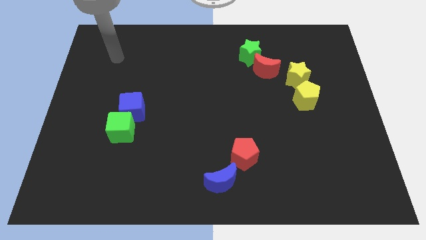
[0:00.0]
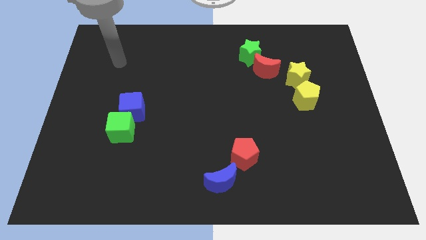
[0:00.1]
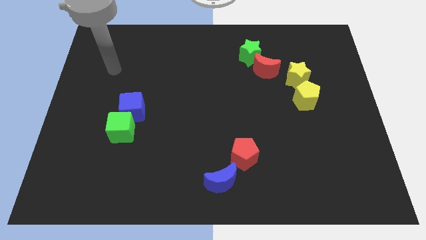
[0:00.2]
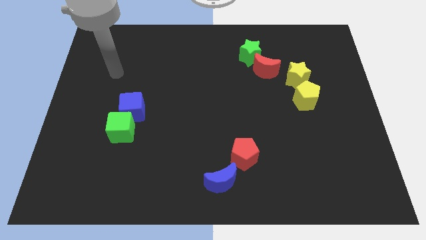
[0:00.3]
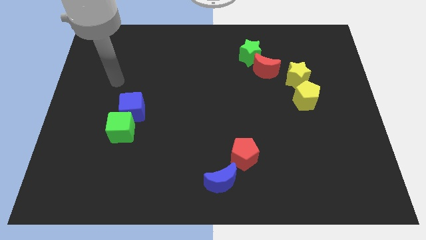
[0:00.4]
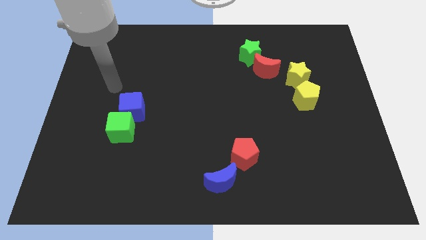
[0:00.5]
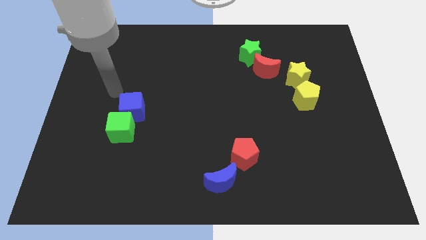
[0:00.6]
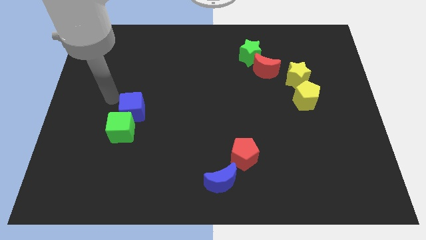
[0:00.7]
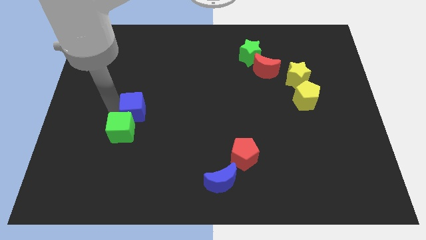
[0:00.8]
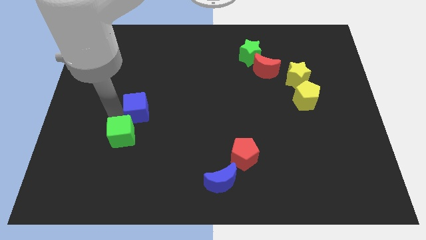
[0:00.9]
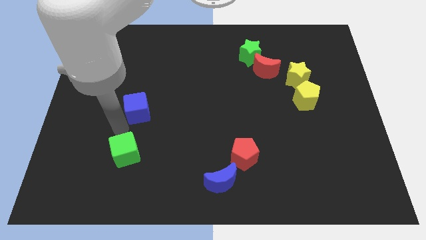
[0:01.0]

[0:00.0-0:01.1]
separate the blue cube from the green cube

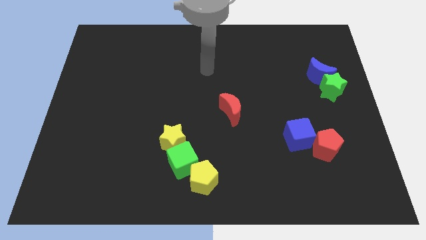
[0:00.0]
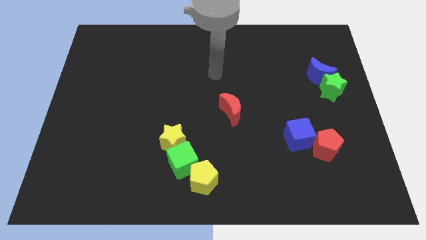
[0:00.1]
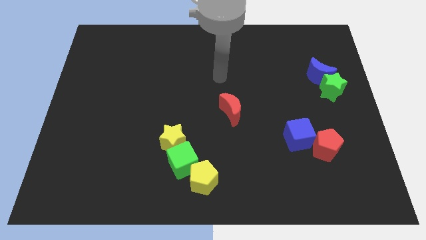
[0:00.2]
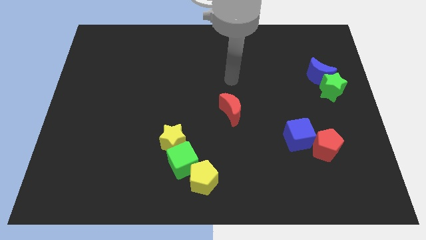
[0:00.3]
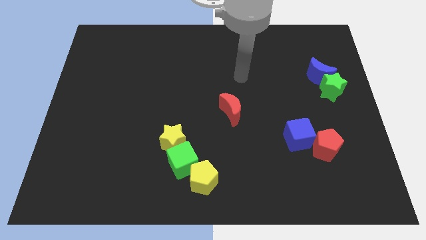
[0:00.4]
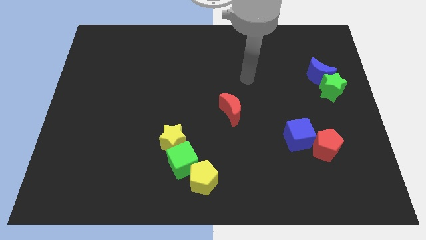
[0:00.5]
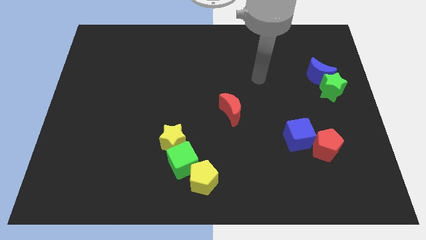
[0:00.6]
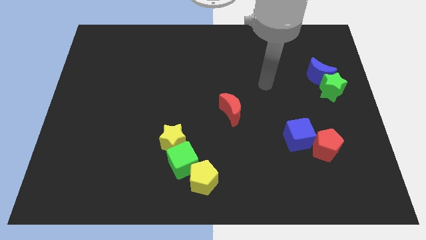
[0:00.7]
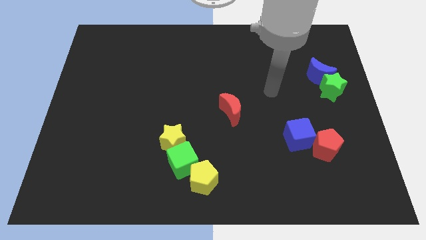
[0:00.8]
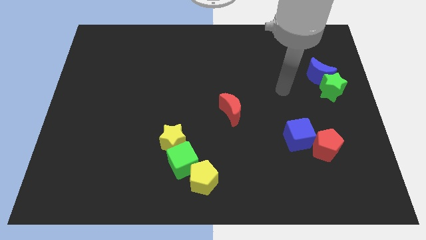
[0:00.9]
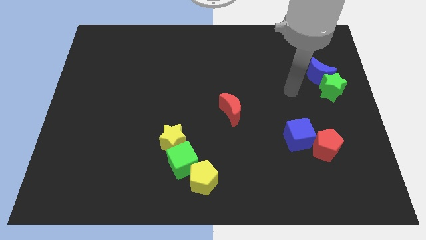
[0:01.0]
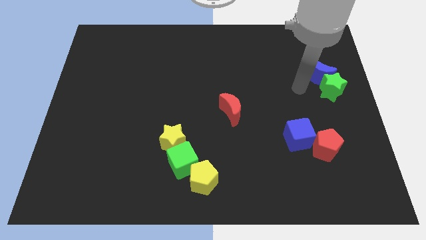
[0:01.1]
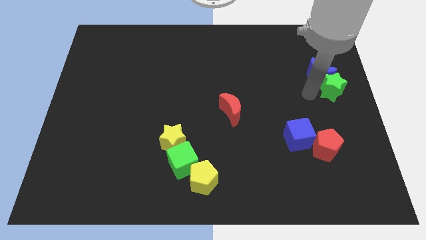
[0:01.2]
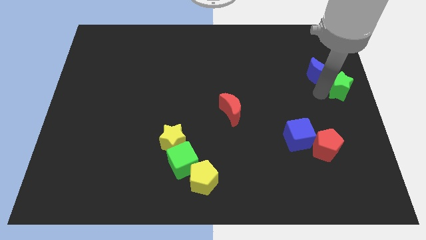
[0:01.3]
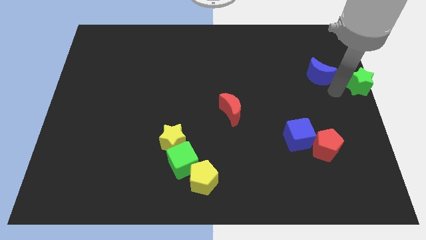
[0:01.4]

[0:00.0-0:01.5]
separate the blue moon from the green star

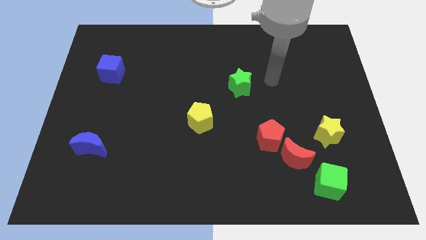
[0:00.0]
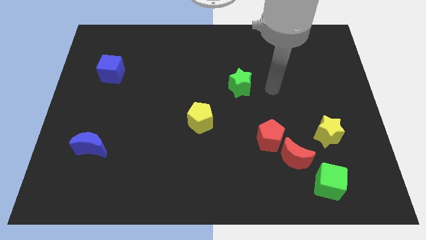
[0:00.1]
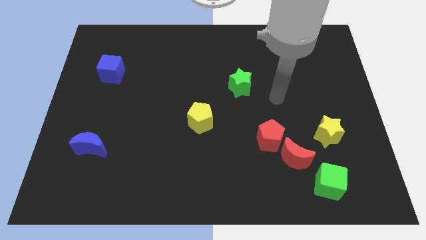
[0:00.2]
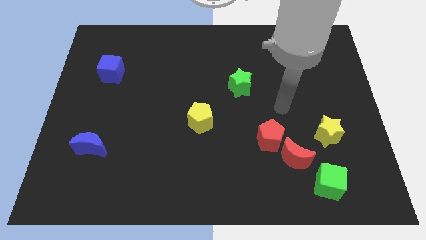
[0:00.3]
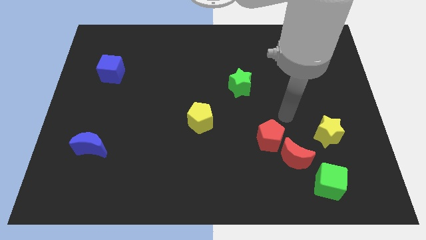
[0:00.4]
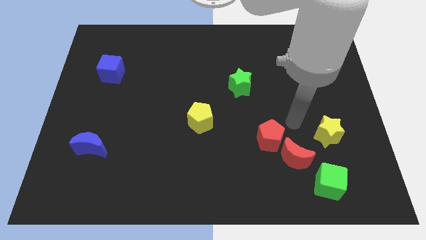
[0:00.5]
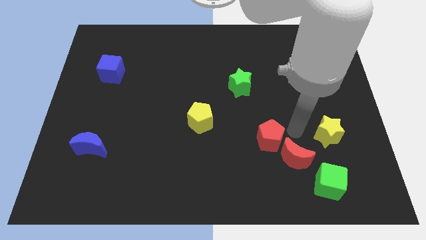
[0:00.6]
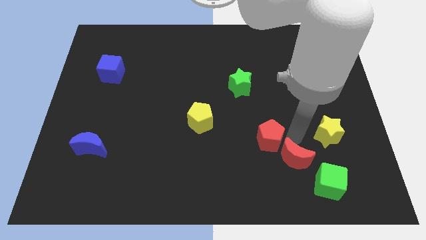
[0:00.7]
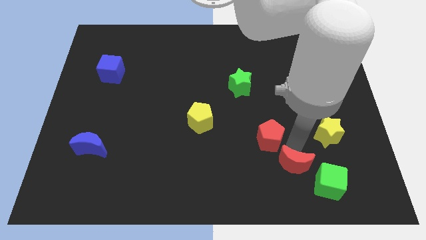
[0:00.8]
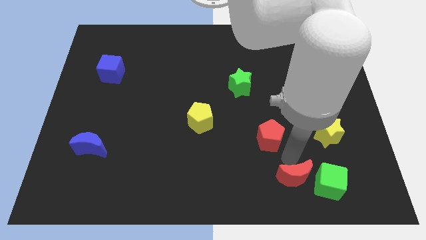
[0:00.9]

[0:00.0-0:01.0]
pull the red pentagon apart from the red moon

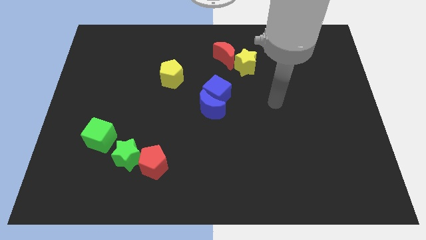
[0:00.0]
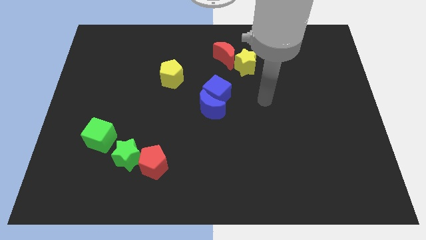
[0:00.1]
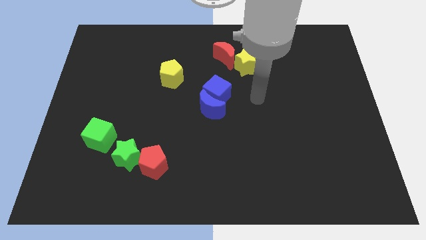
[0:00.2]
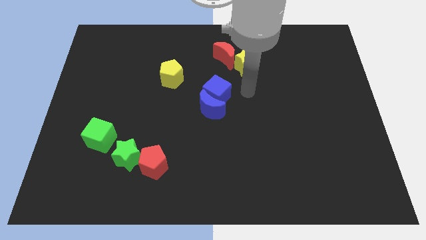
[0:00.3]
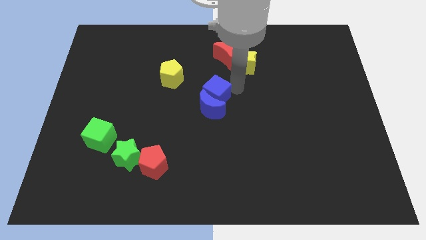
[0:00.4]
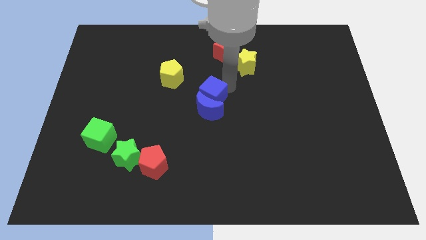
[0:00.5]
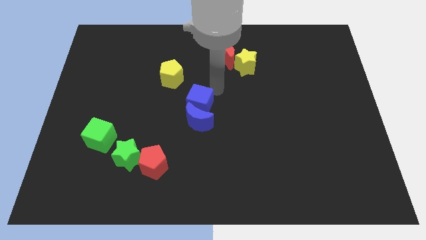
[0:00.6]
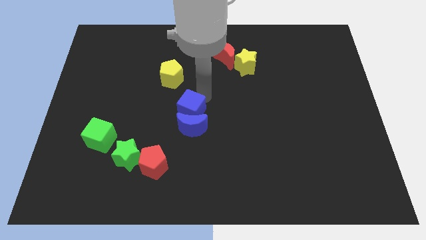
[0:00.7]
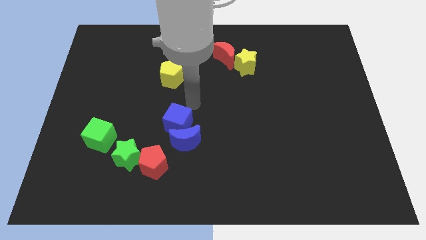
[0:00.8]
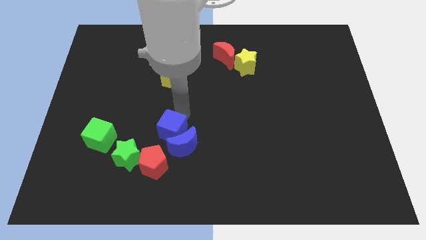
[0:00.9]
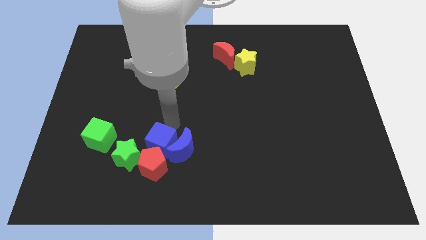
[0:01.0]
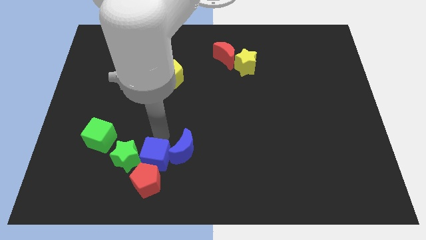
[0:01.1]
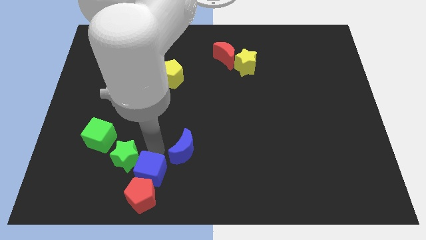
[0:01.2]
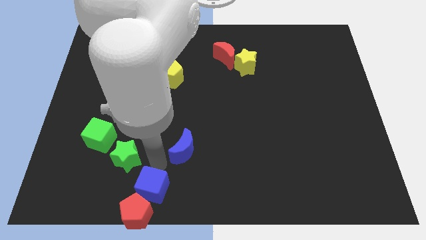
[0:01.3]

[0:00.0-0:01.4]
separate the blue moon from the blue cube

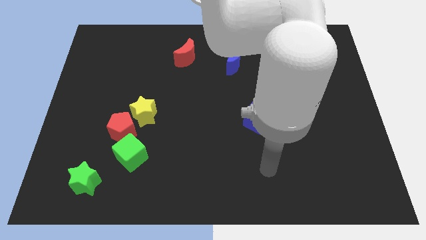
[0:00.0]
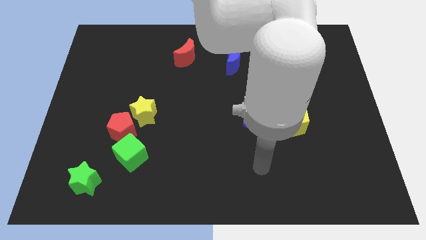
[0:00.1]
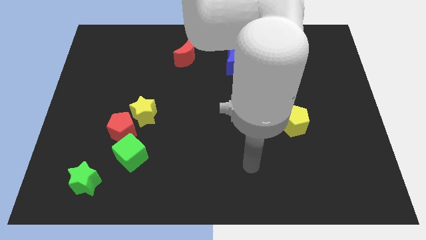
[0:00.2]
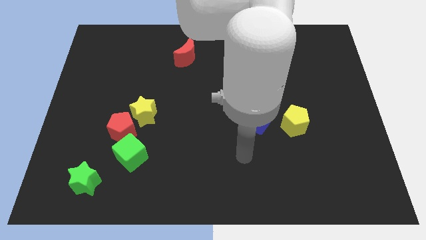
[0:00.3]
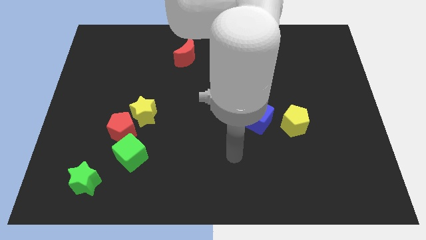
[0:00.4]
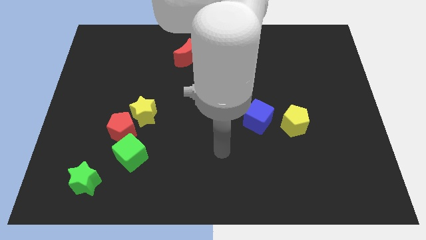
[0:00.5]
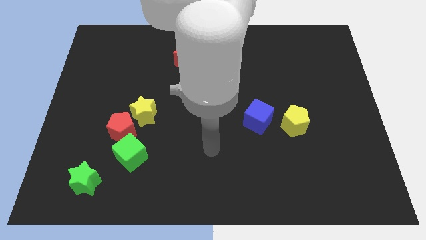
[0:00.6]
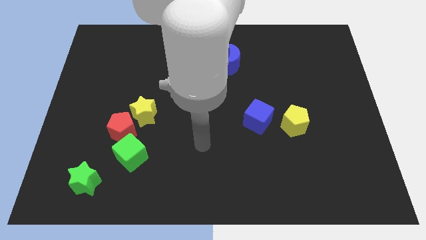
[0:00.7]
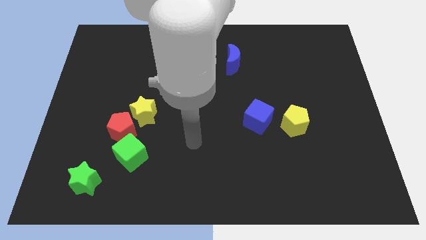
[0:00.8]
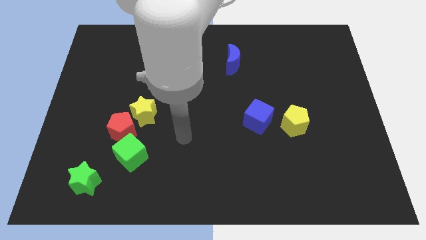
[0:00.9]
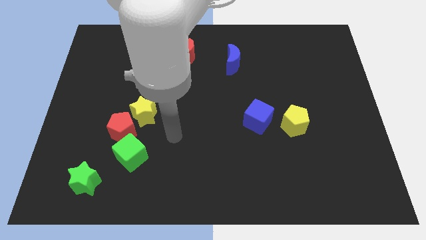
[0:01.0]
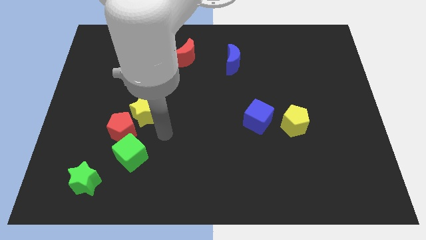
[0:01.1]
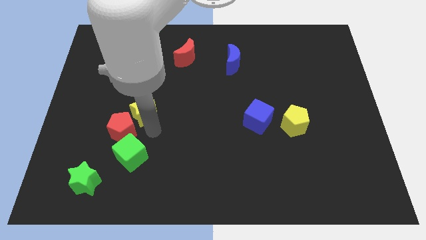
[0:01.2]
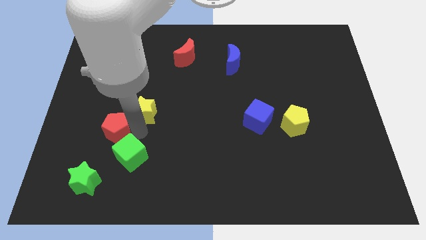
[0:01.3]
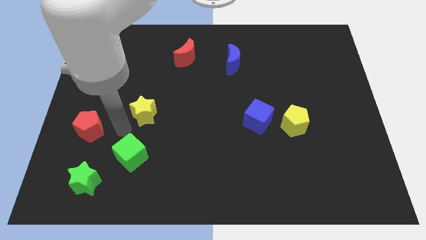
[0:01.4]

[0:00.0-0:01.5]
move the yellow star away from the red pentagon

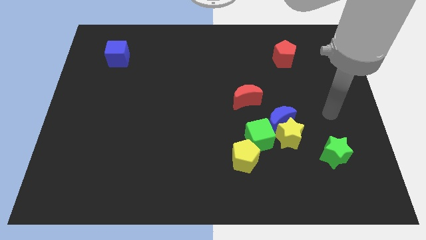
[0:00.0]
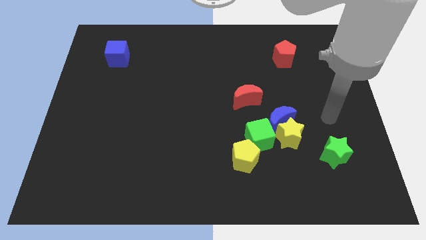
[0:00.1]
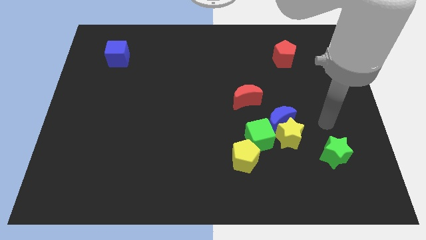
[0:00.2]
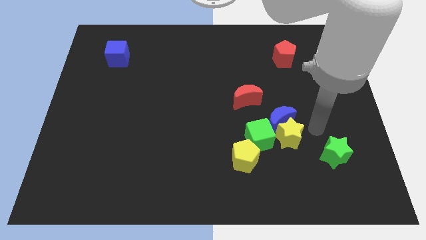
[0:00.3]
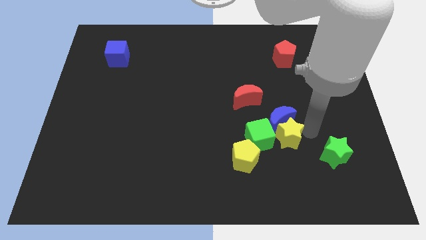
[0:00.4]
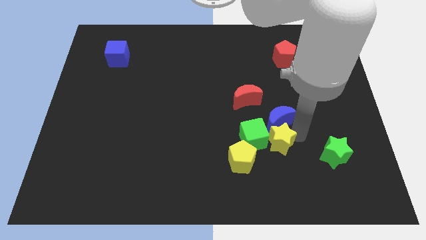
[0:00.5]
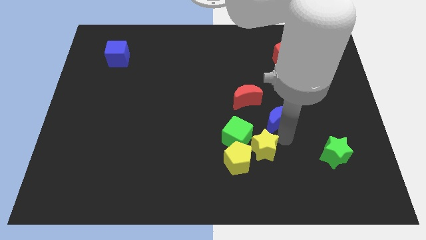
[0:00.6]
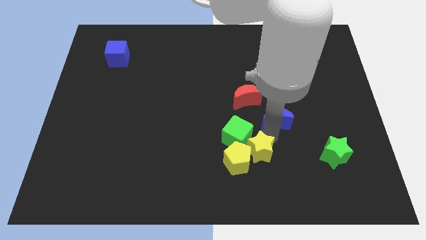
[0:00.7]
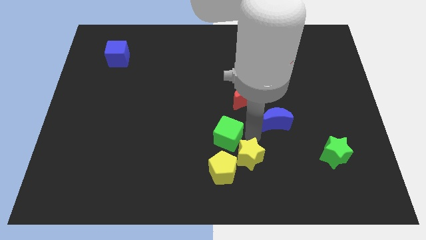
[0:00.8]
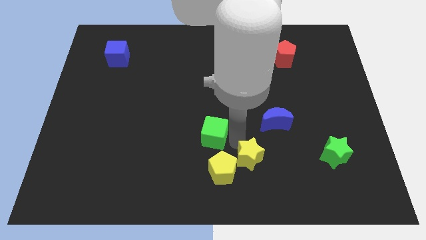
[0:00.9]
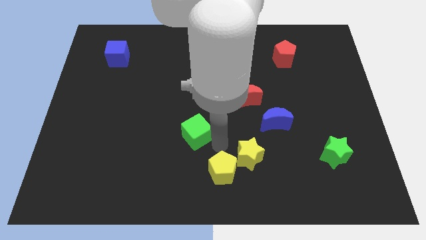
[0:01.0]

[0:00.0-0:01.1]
separate the yellow pentagon from the green cube

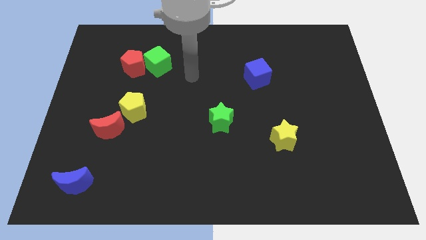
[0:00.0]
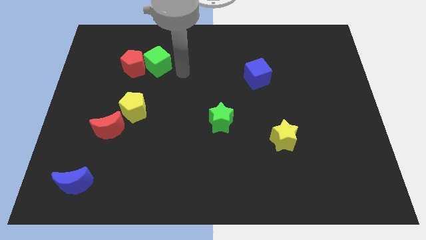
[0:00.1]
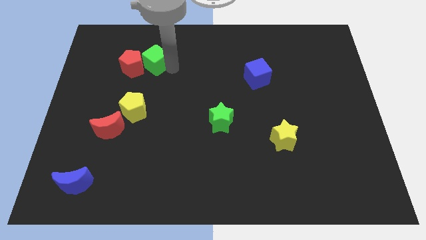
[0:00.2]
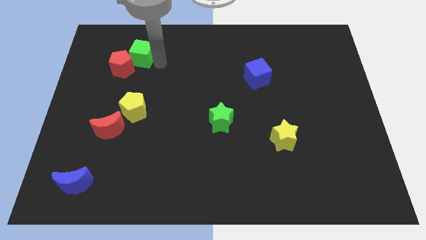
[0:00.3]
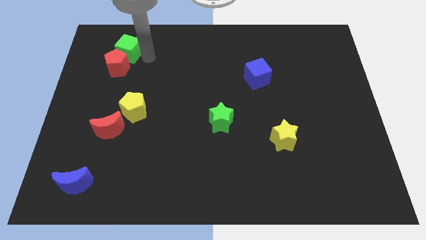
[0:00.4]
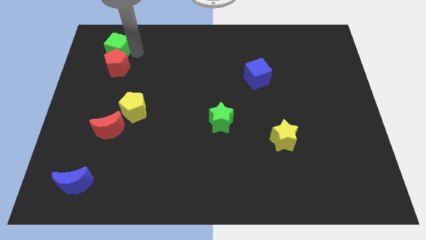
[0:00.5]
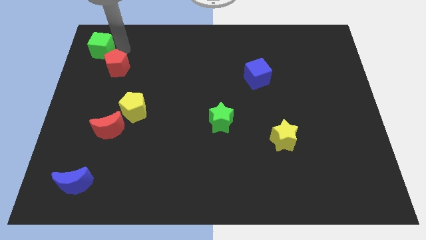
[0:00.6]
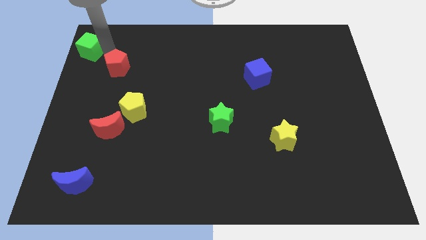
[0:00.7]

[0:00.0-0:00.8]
separate the red pentagon from the green cube

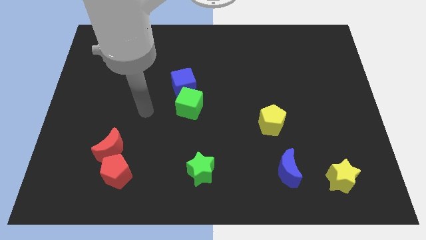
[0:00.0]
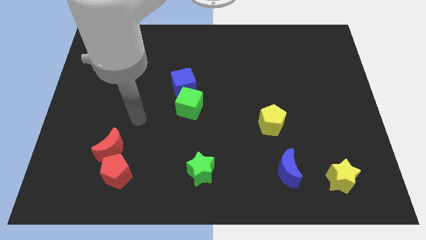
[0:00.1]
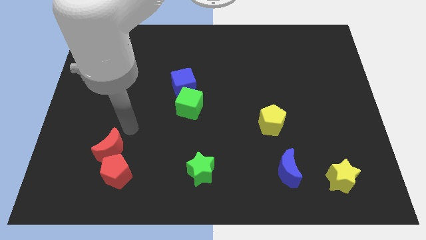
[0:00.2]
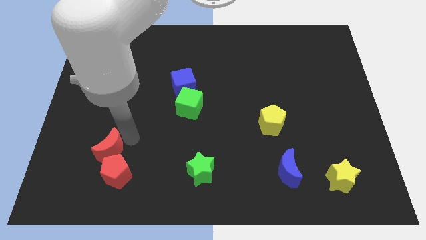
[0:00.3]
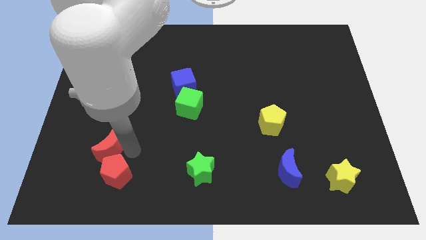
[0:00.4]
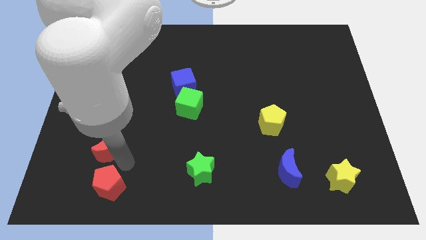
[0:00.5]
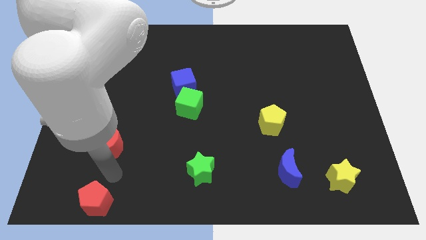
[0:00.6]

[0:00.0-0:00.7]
pull the red moon apart from the red pentagon

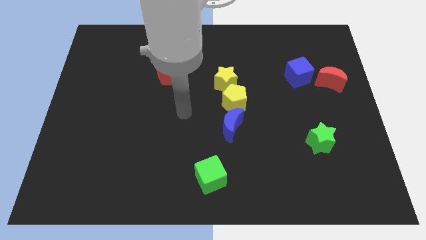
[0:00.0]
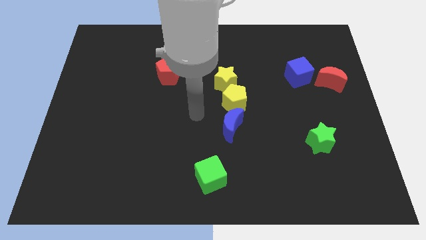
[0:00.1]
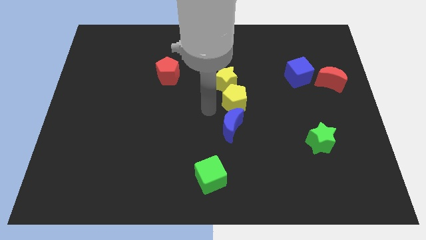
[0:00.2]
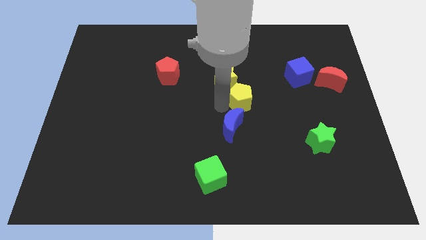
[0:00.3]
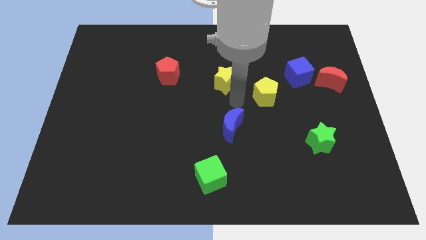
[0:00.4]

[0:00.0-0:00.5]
pull the yellow star apart from the yellow pentagon
